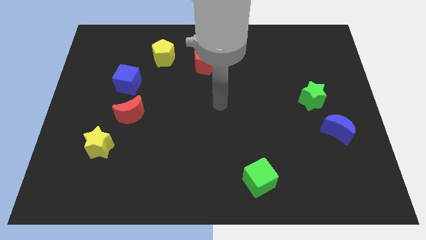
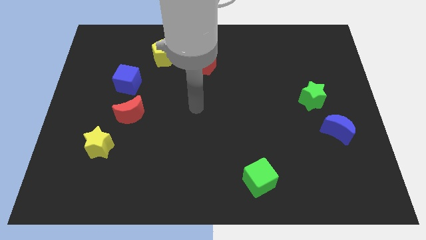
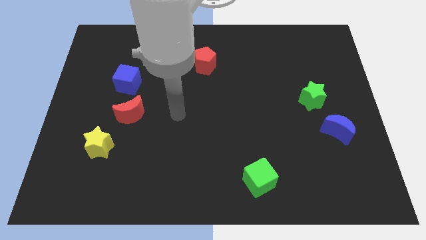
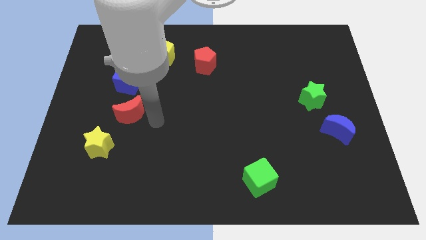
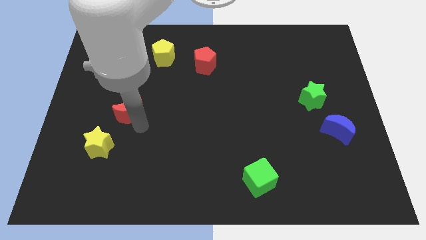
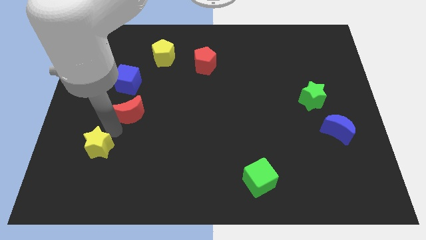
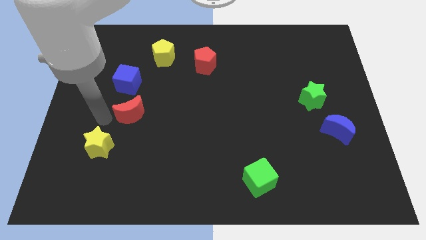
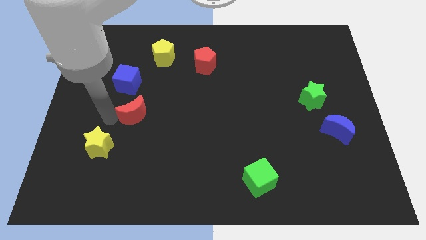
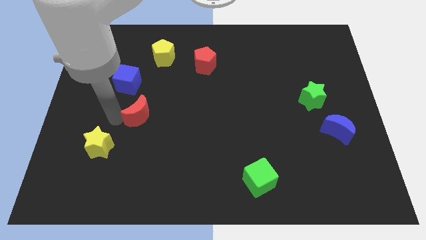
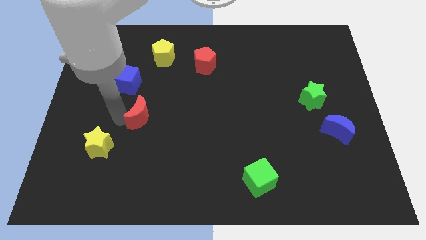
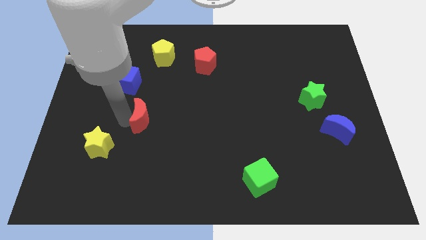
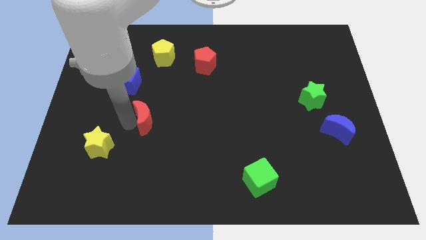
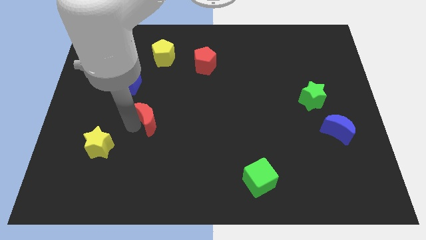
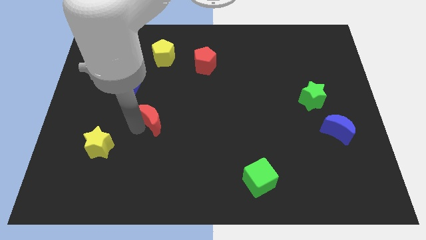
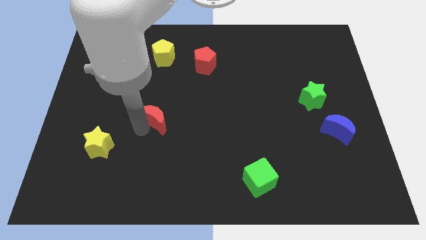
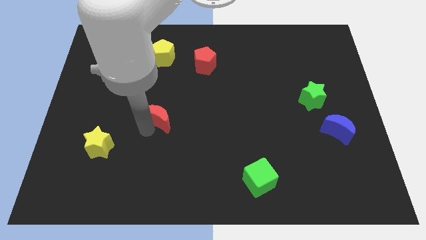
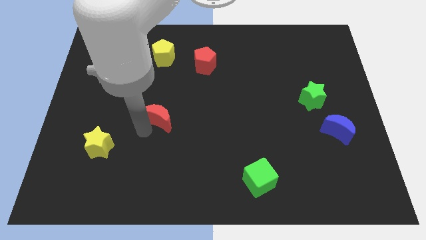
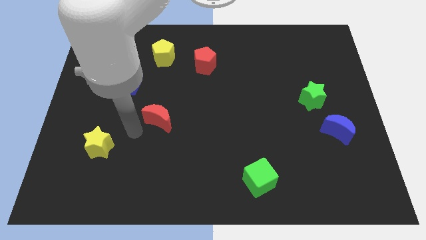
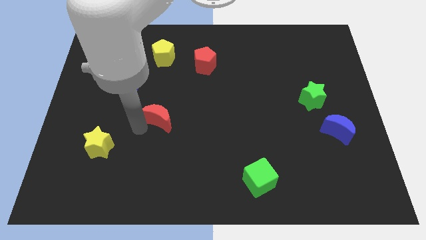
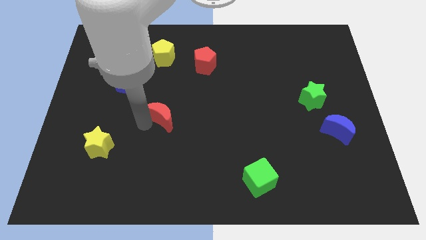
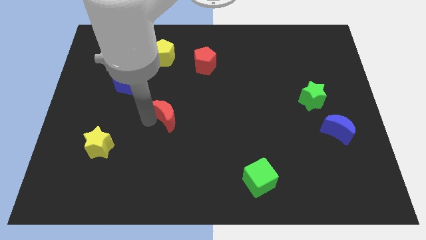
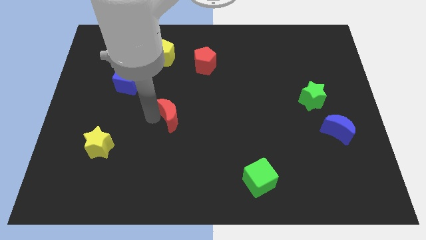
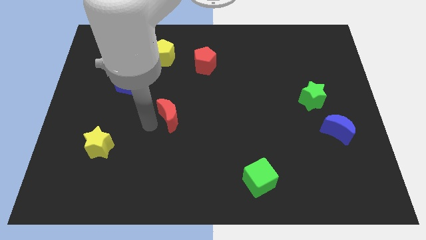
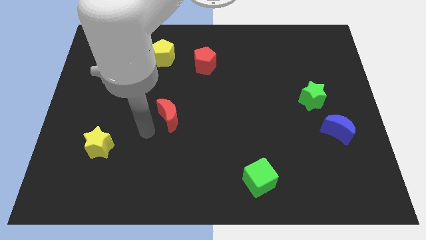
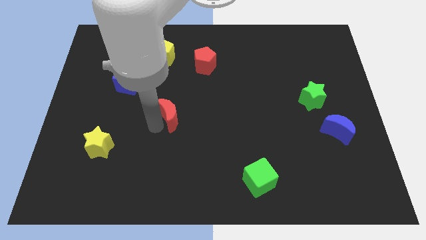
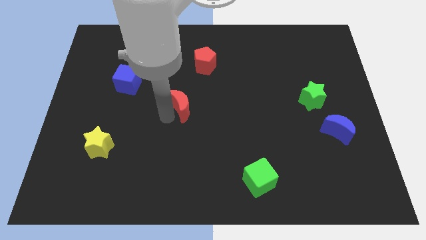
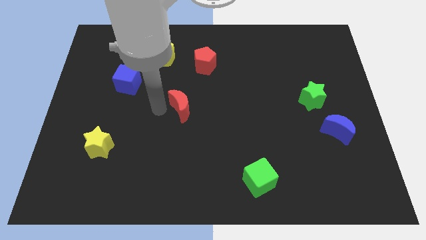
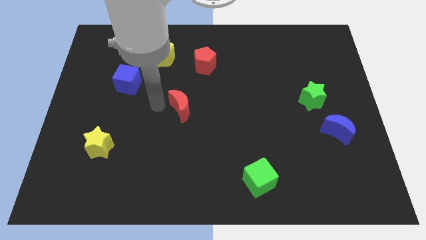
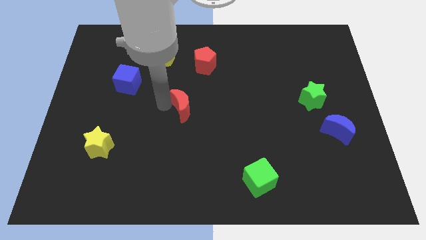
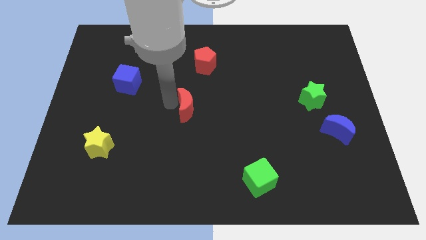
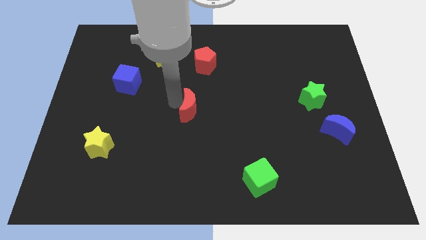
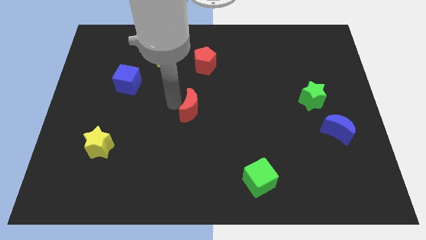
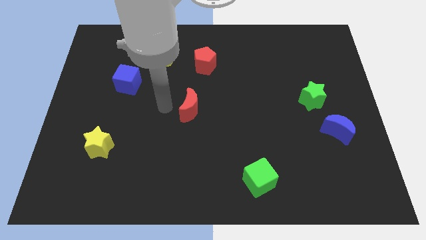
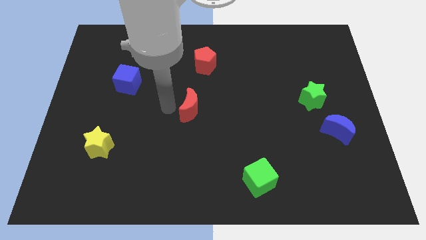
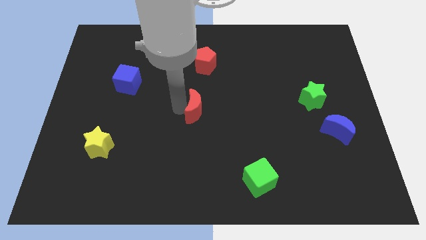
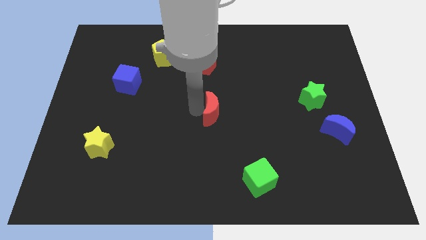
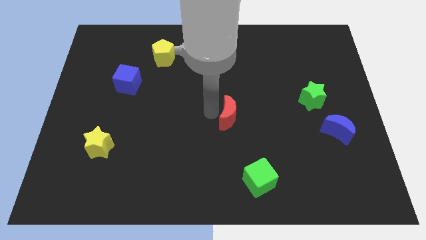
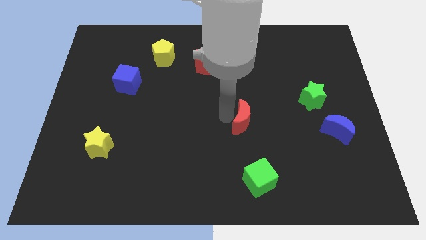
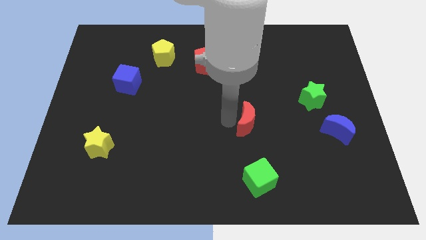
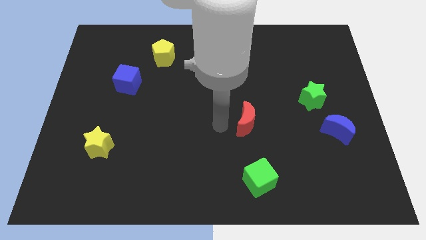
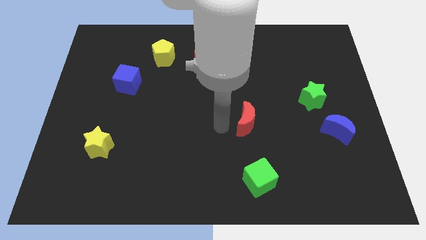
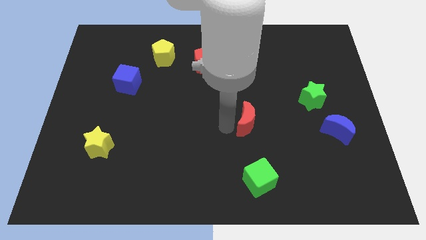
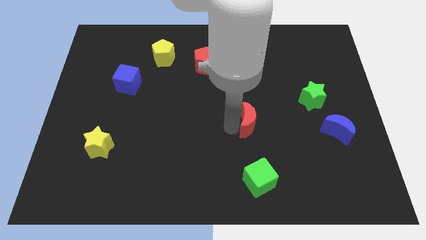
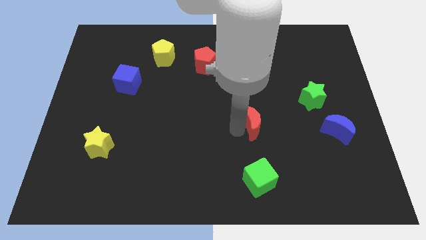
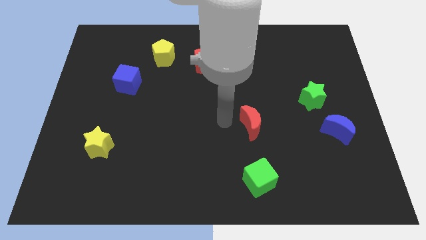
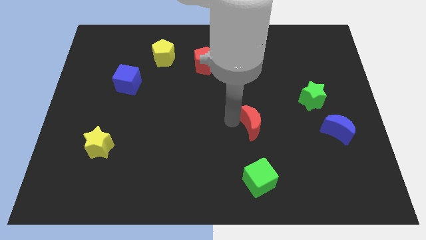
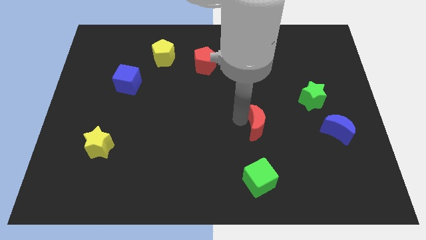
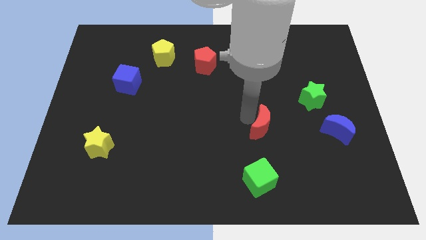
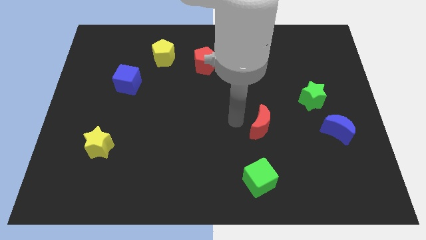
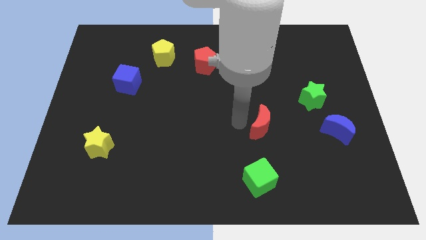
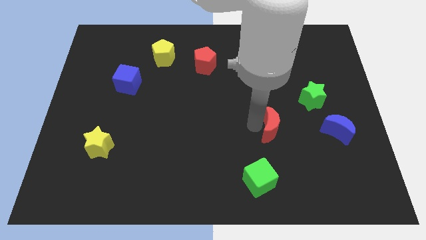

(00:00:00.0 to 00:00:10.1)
move the red moon just left of the blue moon

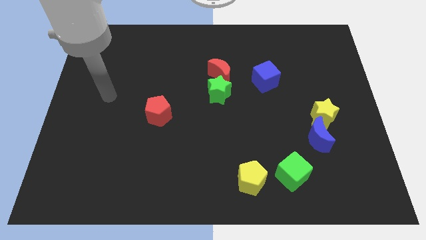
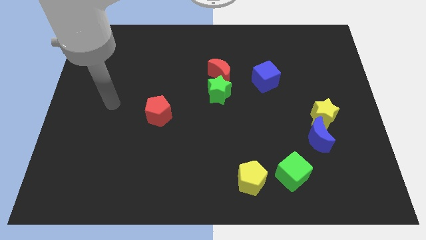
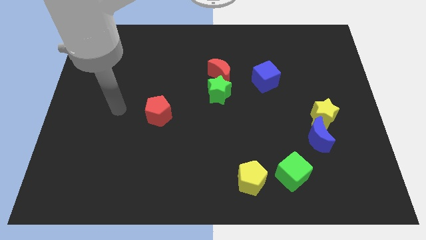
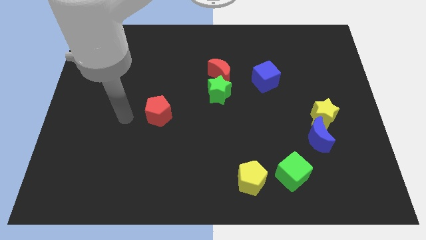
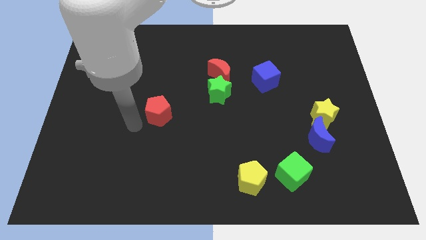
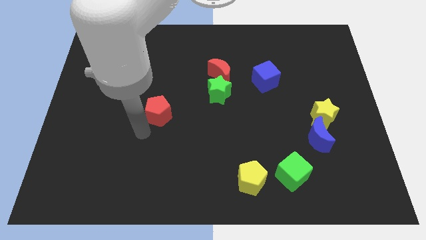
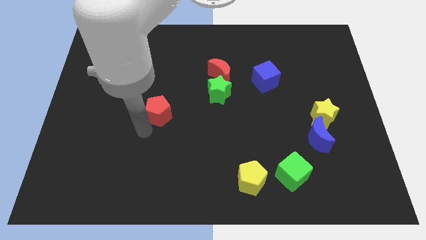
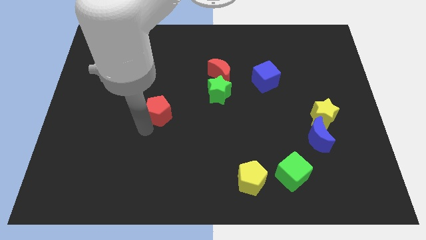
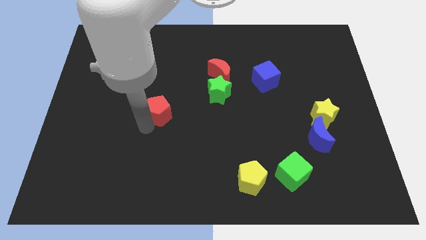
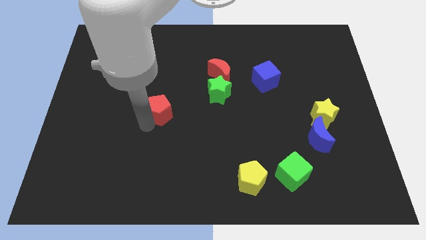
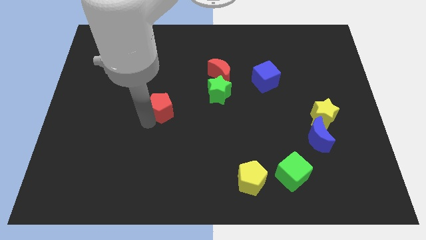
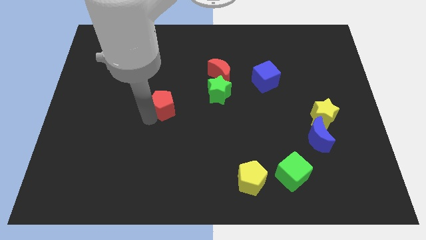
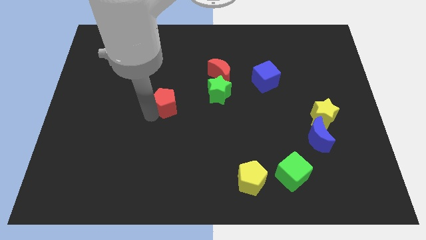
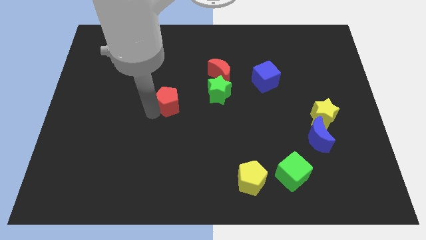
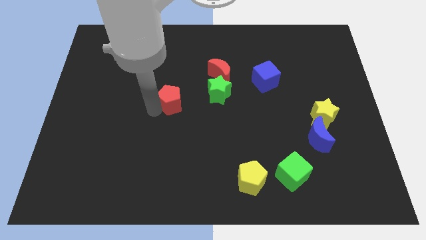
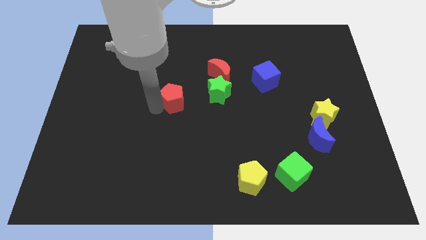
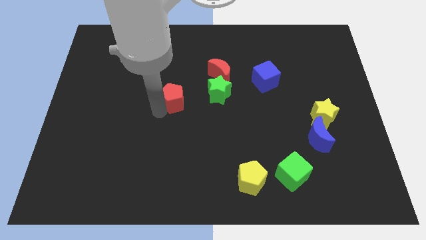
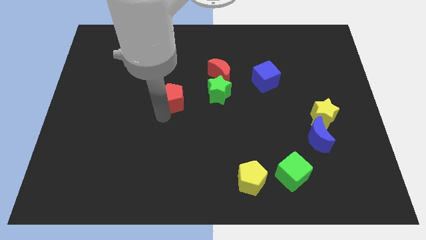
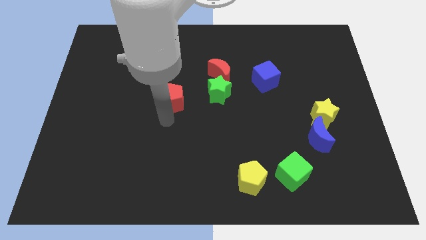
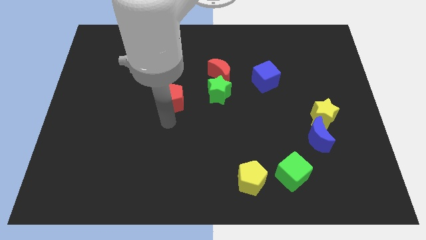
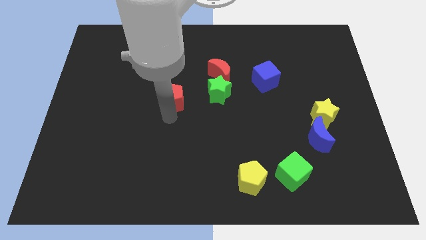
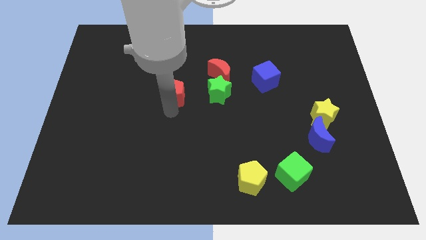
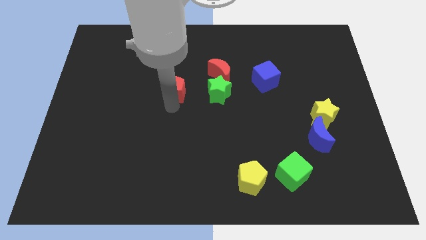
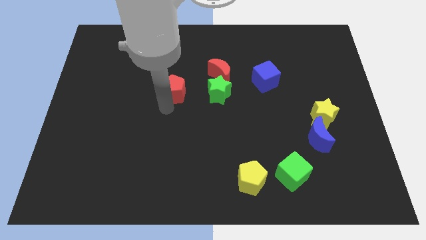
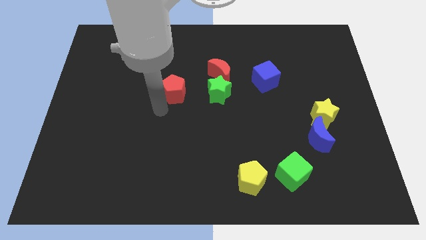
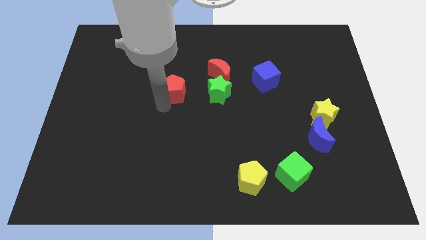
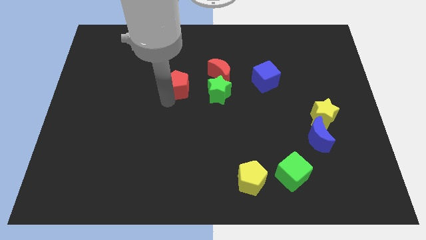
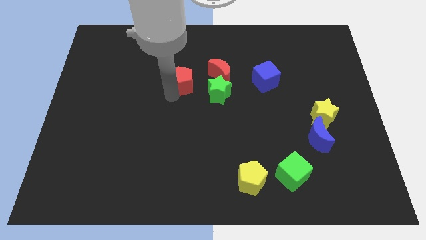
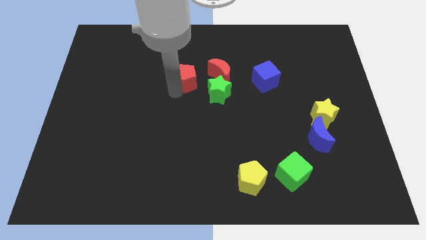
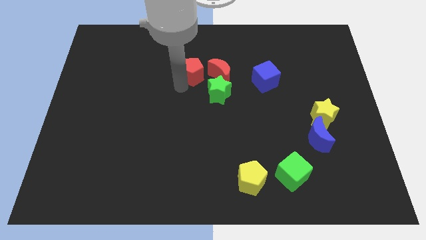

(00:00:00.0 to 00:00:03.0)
put the red pentagon to the top left of the red moon
